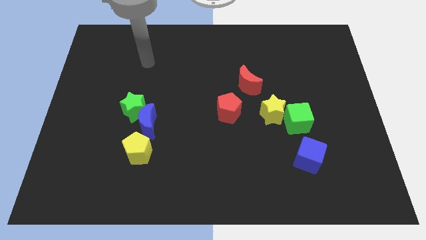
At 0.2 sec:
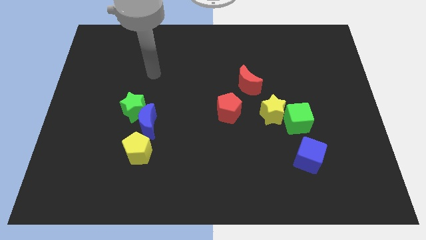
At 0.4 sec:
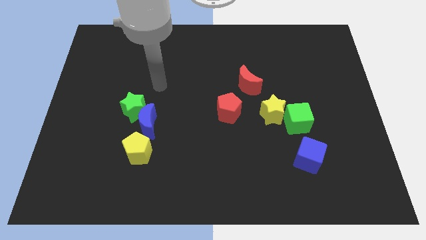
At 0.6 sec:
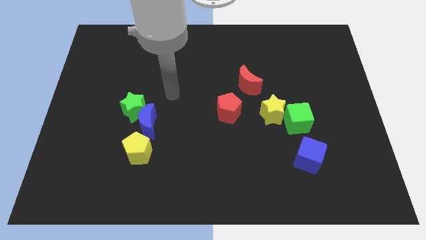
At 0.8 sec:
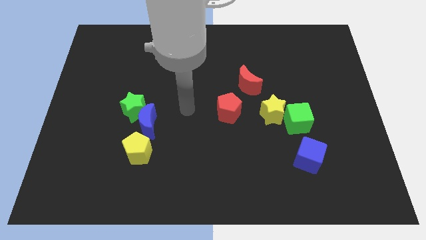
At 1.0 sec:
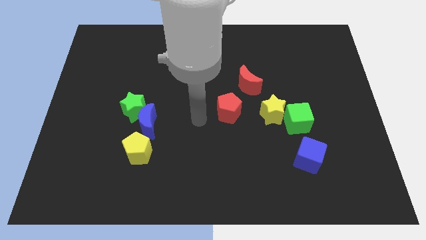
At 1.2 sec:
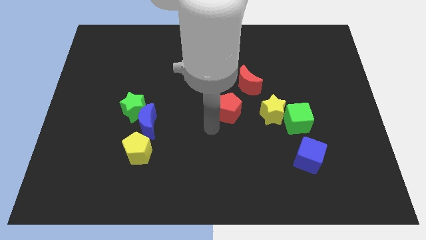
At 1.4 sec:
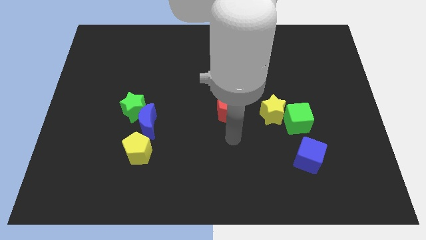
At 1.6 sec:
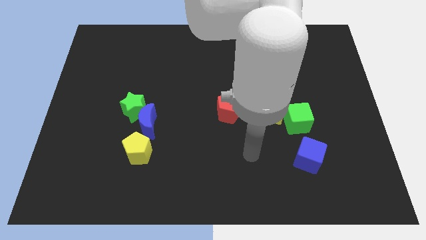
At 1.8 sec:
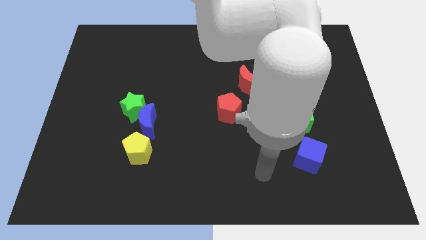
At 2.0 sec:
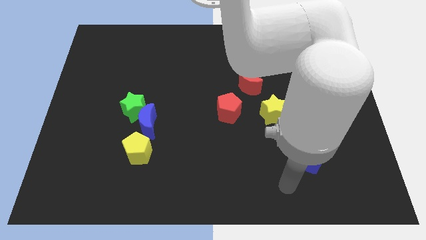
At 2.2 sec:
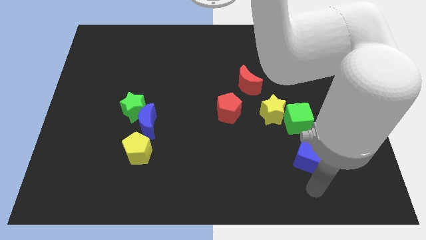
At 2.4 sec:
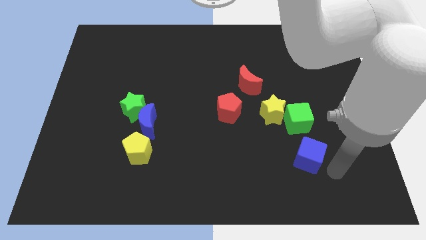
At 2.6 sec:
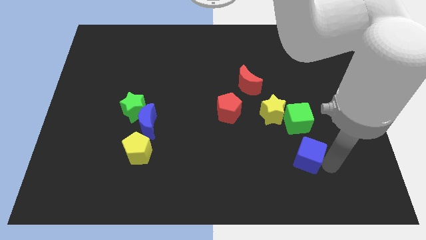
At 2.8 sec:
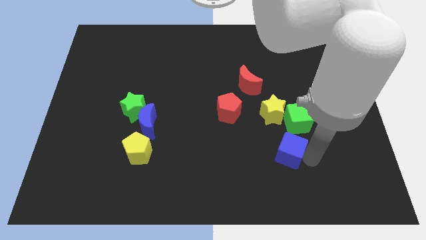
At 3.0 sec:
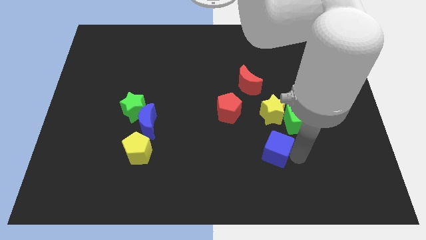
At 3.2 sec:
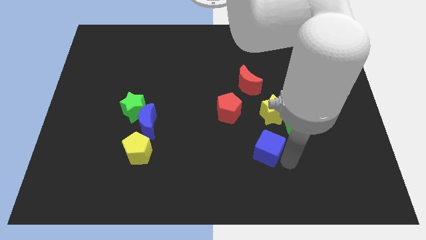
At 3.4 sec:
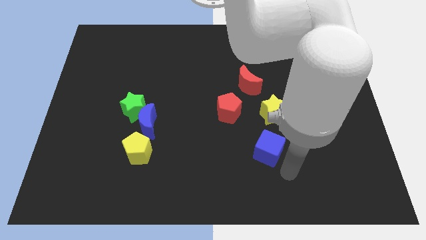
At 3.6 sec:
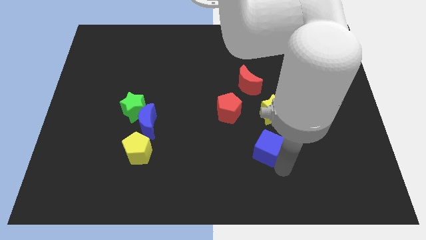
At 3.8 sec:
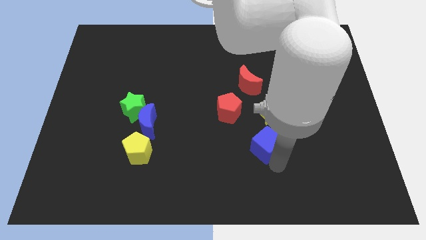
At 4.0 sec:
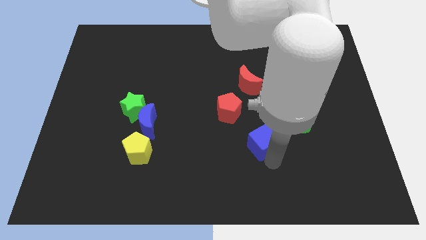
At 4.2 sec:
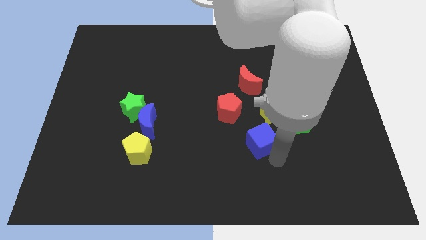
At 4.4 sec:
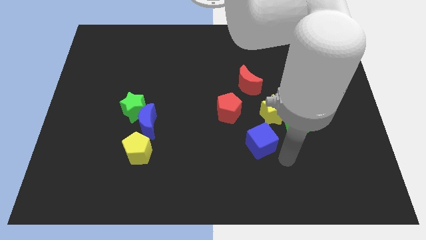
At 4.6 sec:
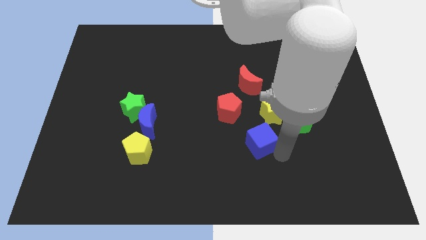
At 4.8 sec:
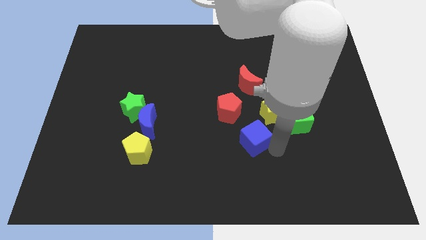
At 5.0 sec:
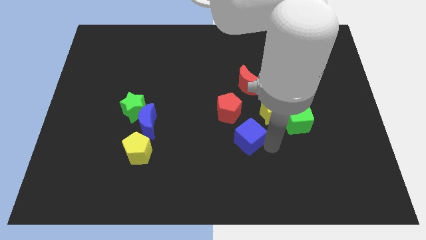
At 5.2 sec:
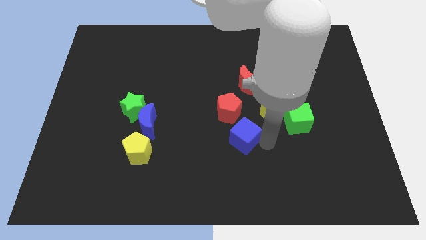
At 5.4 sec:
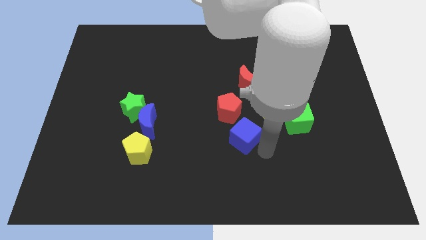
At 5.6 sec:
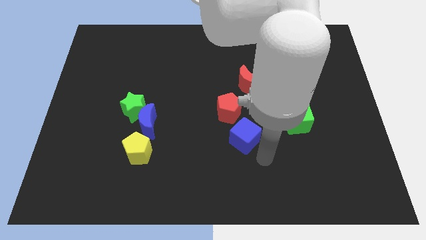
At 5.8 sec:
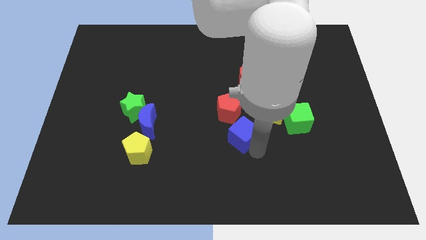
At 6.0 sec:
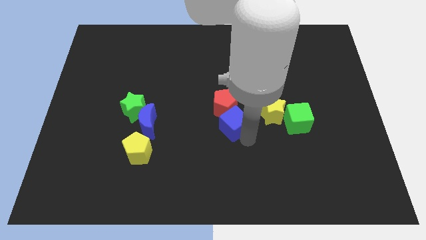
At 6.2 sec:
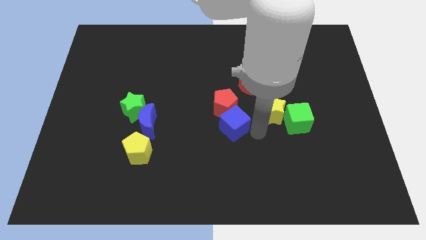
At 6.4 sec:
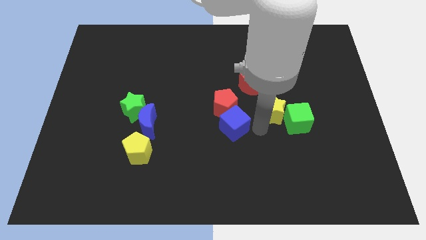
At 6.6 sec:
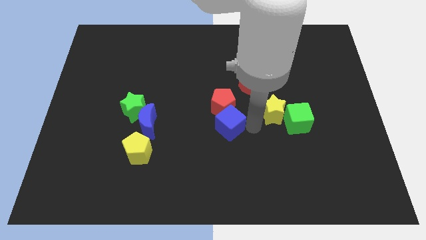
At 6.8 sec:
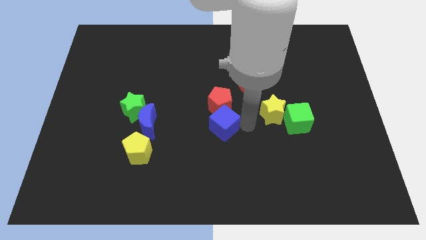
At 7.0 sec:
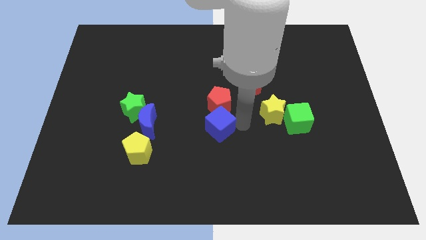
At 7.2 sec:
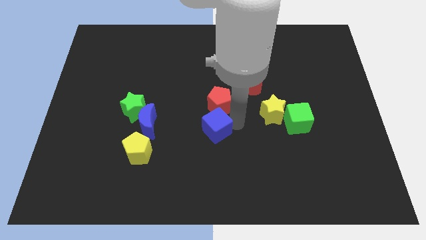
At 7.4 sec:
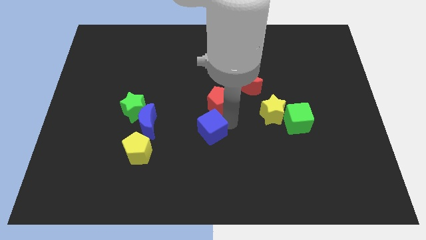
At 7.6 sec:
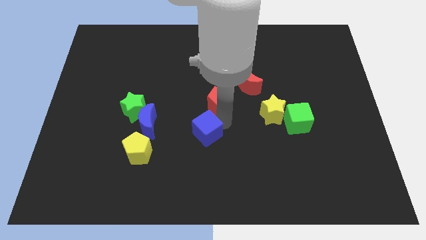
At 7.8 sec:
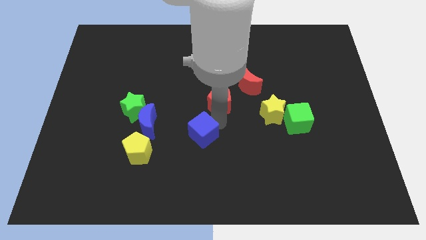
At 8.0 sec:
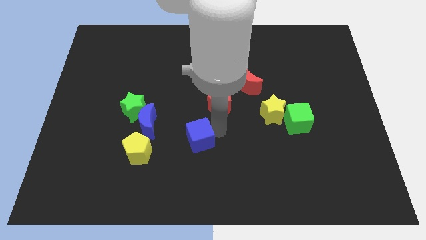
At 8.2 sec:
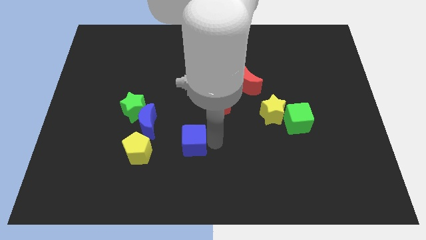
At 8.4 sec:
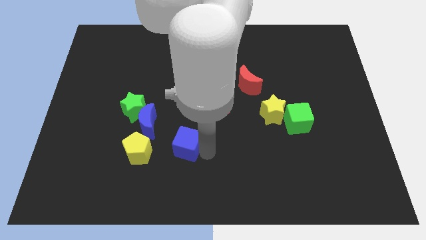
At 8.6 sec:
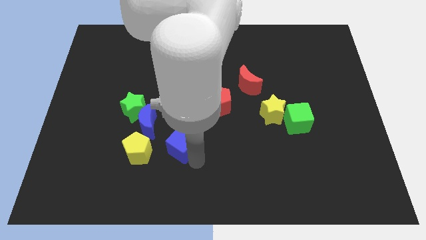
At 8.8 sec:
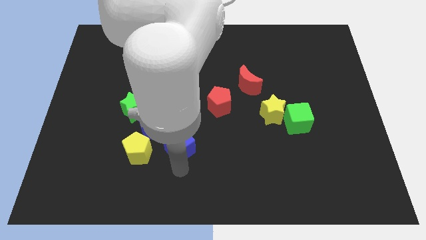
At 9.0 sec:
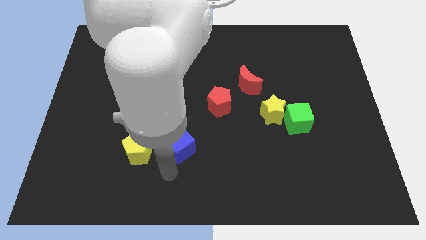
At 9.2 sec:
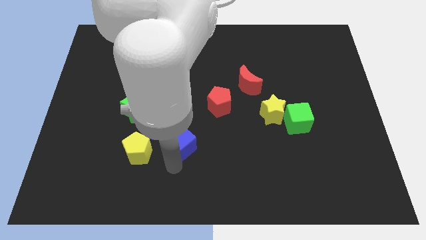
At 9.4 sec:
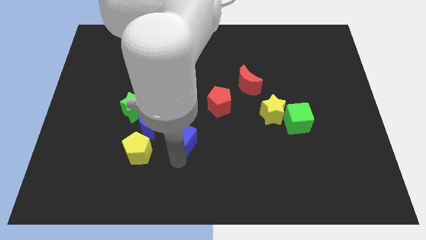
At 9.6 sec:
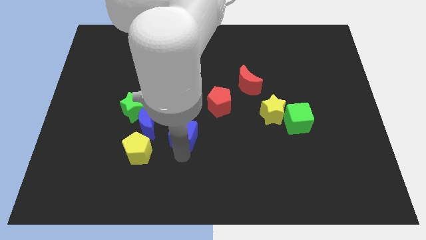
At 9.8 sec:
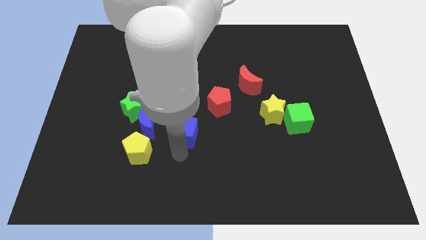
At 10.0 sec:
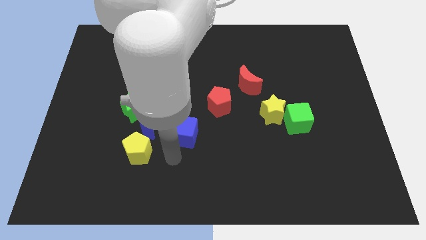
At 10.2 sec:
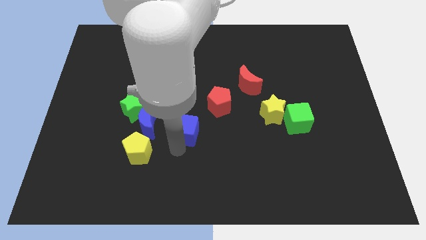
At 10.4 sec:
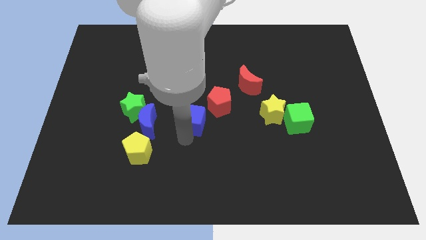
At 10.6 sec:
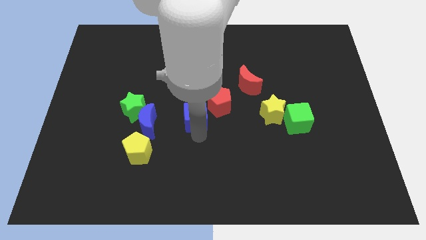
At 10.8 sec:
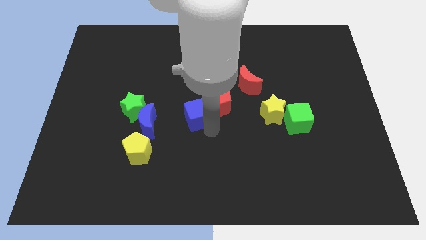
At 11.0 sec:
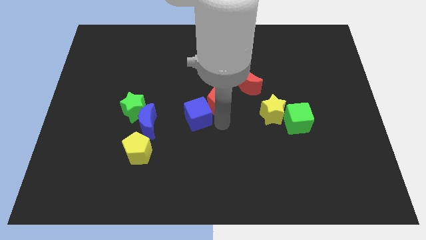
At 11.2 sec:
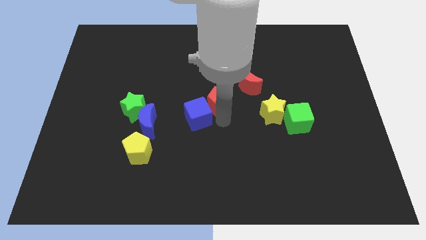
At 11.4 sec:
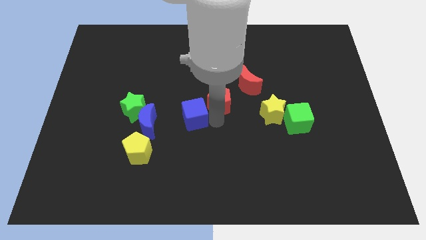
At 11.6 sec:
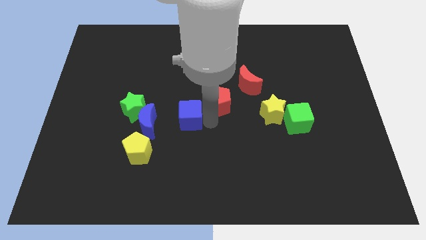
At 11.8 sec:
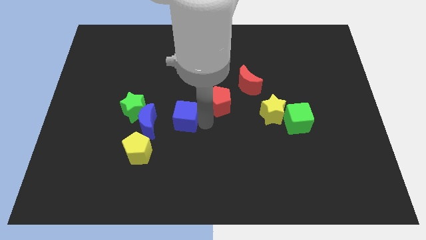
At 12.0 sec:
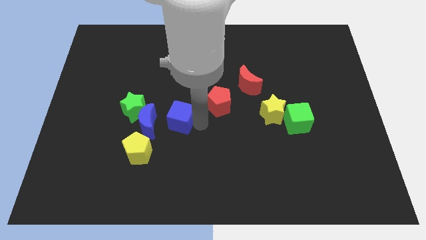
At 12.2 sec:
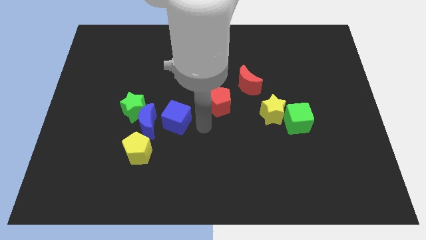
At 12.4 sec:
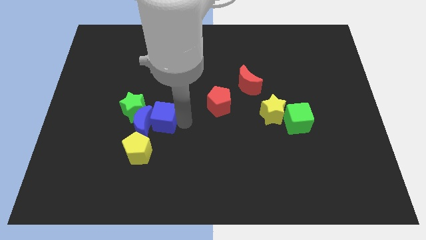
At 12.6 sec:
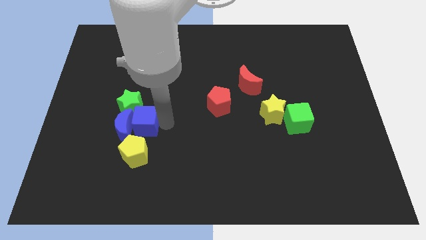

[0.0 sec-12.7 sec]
put the blue cube to the green star
